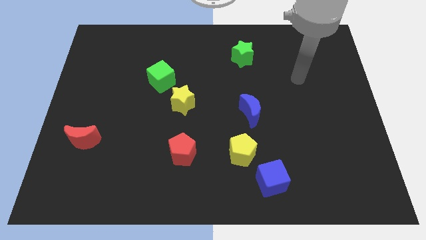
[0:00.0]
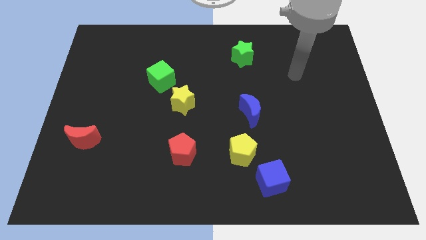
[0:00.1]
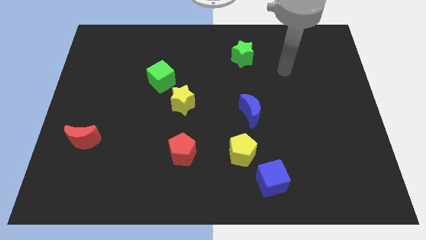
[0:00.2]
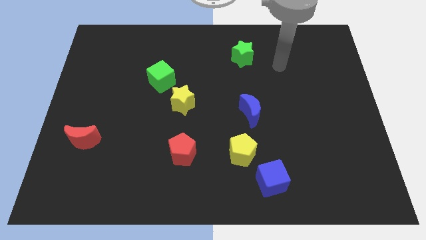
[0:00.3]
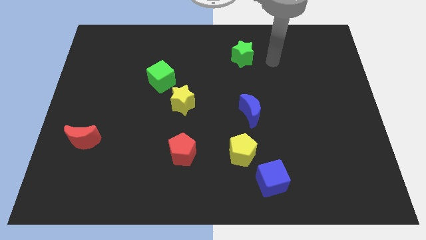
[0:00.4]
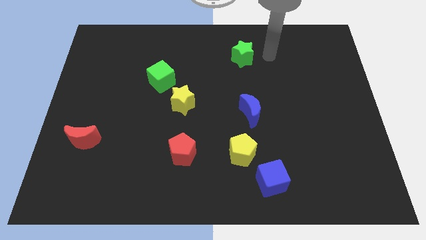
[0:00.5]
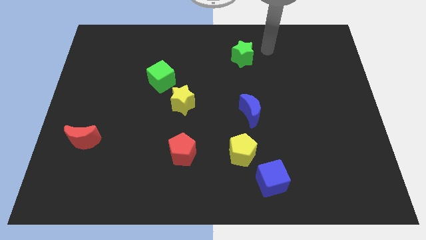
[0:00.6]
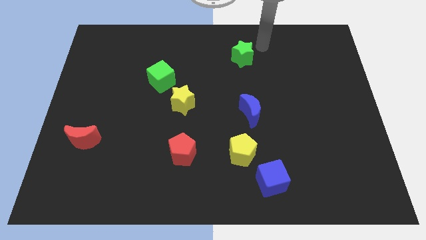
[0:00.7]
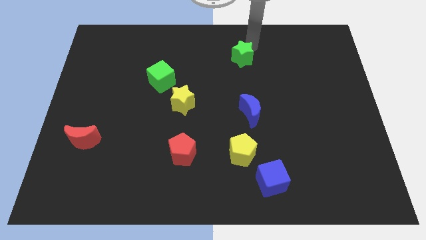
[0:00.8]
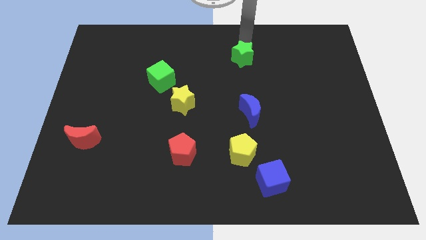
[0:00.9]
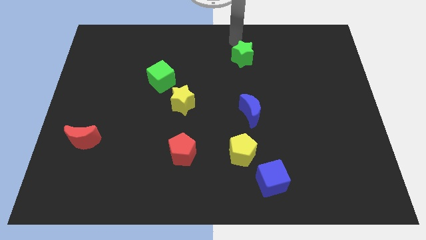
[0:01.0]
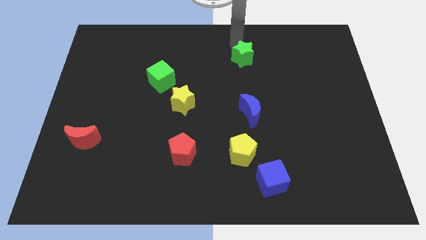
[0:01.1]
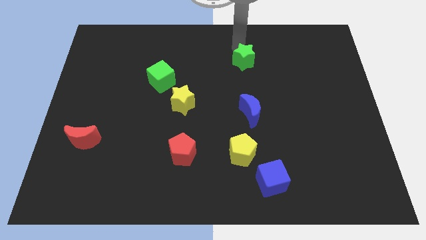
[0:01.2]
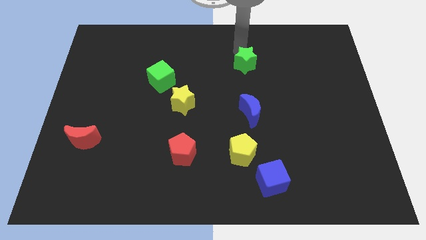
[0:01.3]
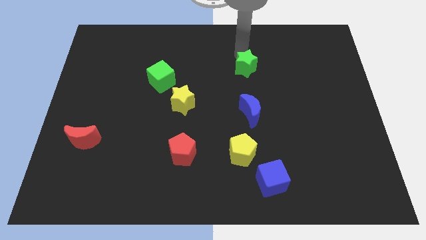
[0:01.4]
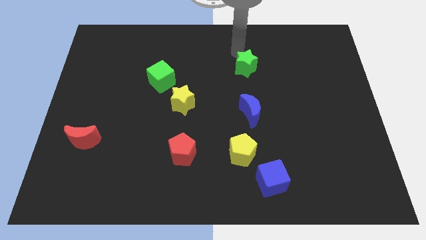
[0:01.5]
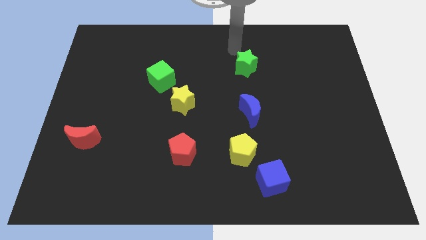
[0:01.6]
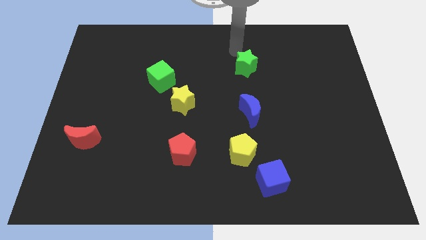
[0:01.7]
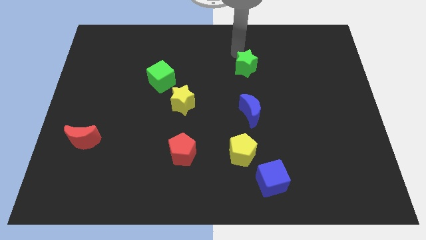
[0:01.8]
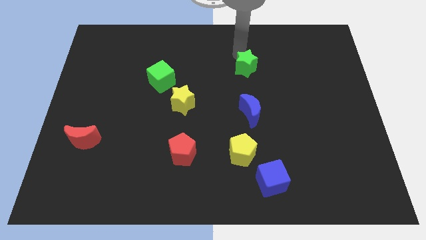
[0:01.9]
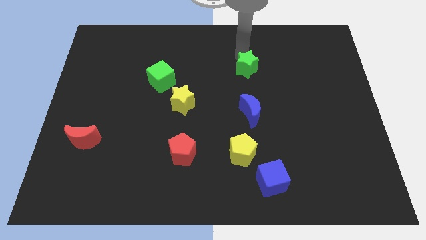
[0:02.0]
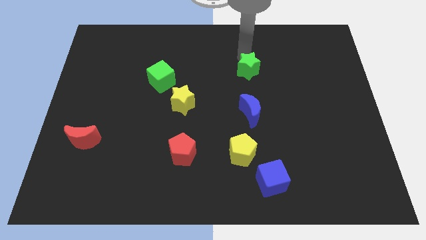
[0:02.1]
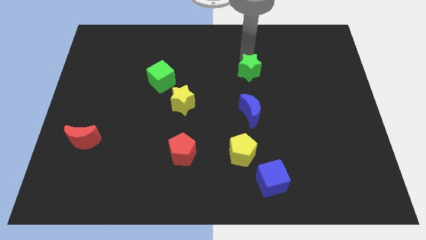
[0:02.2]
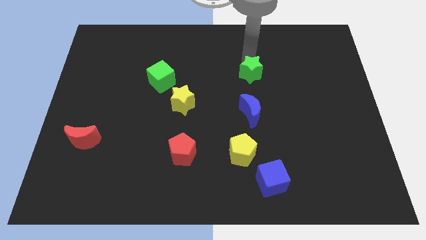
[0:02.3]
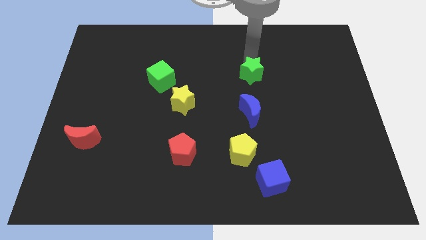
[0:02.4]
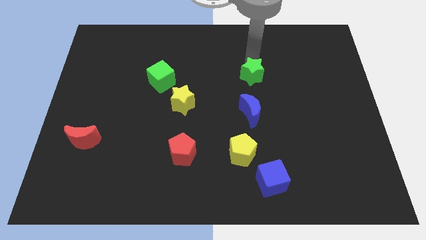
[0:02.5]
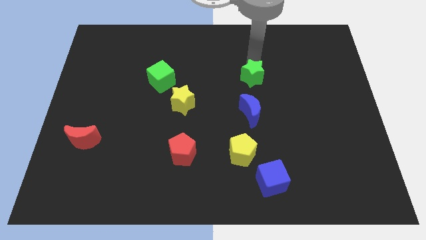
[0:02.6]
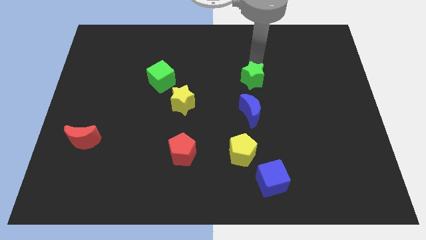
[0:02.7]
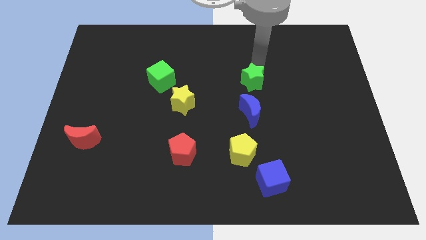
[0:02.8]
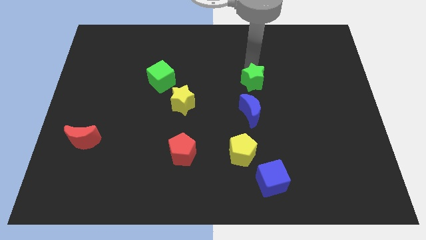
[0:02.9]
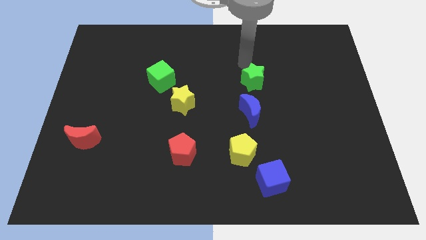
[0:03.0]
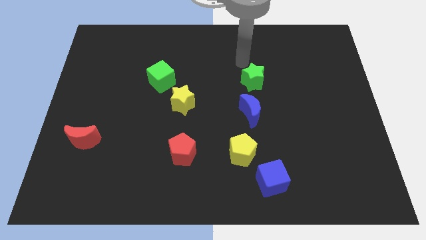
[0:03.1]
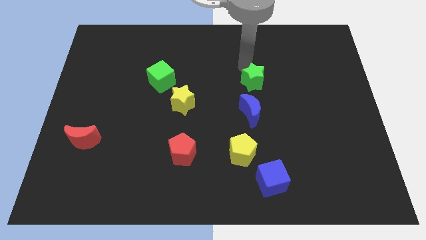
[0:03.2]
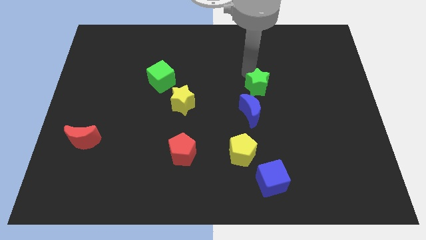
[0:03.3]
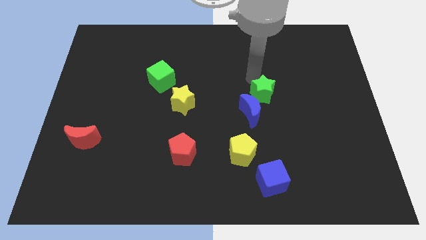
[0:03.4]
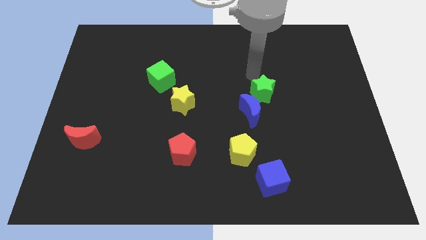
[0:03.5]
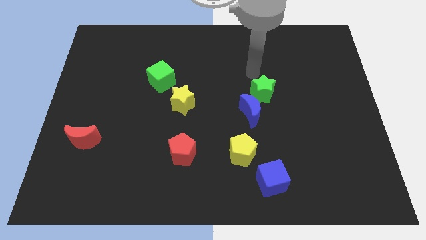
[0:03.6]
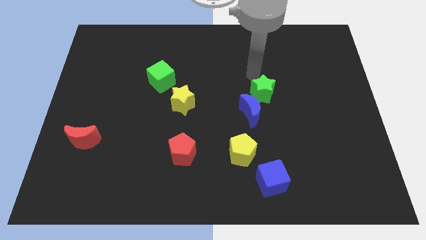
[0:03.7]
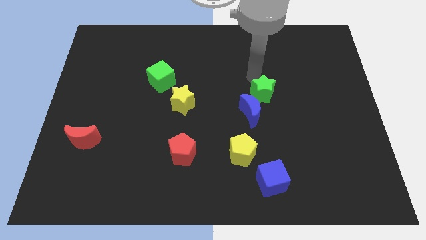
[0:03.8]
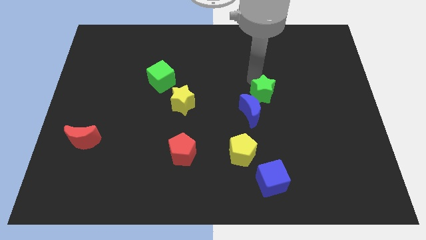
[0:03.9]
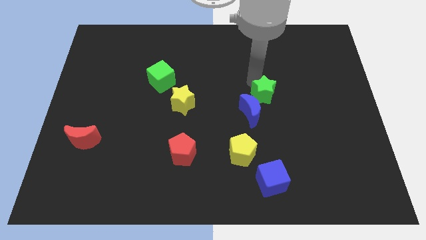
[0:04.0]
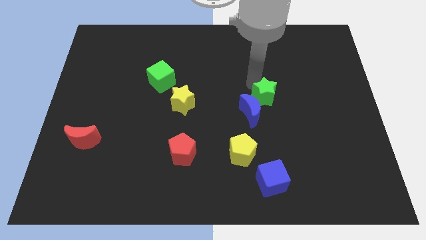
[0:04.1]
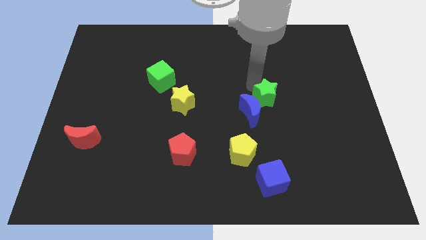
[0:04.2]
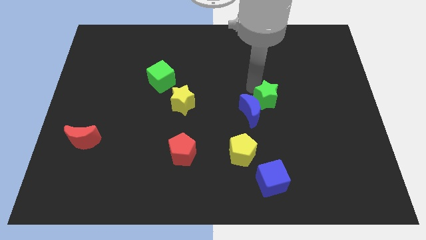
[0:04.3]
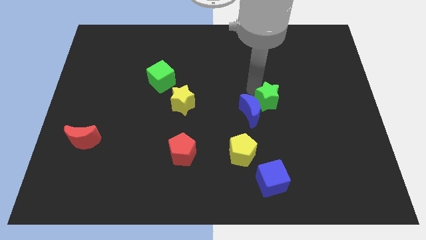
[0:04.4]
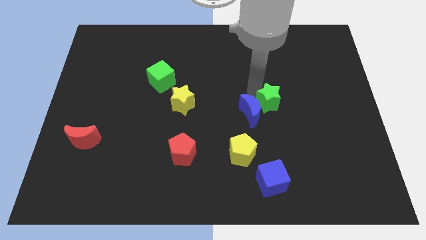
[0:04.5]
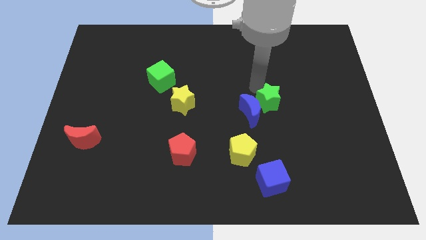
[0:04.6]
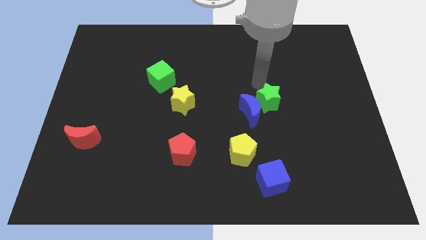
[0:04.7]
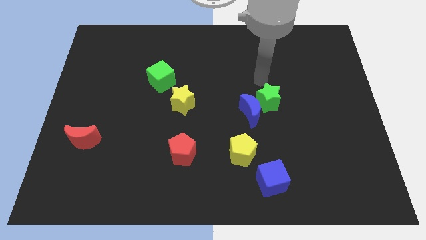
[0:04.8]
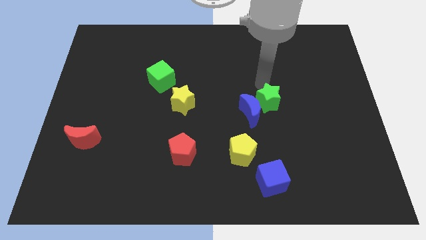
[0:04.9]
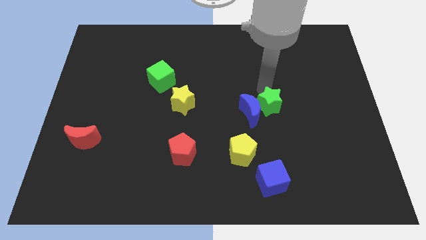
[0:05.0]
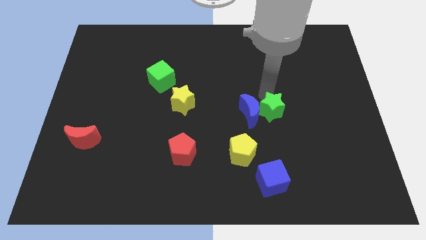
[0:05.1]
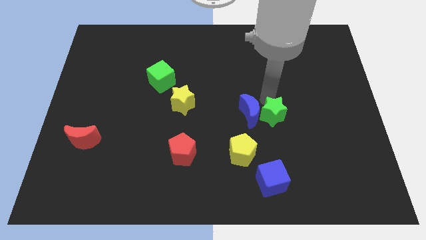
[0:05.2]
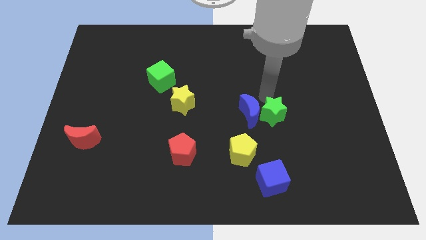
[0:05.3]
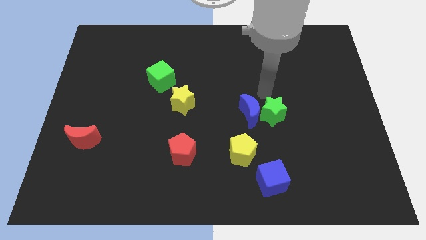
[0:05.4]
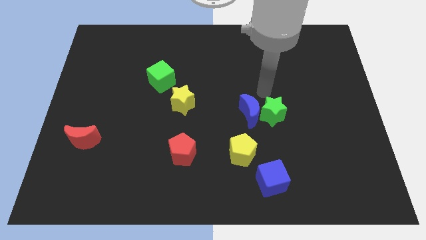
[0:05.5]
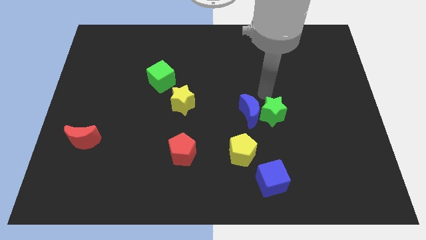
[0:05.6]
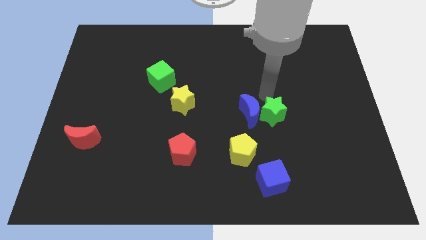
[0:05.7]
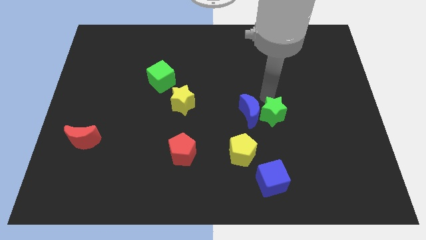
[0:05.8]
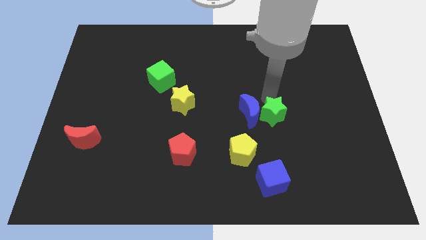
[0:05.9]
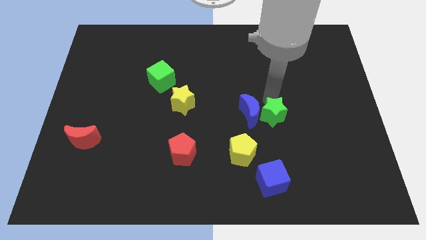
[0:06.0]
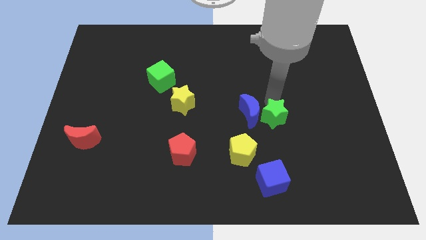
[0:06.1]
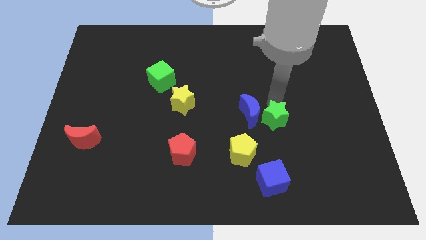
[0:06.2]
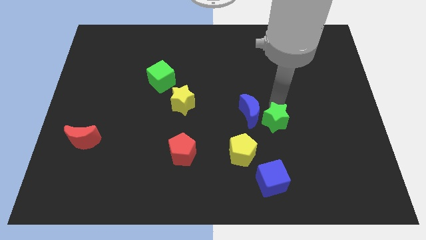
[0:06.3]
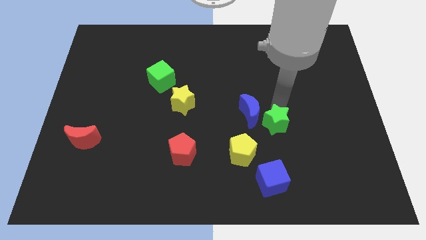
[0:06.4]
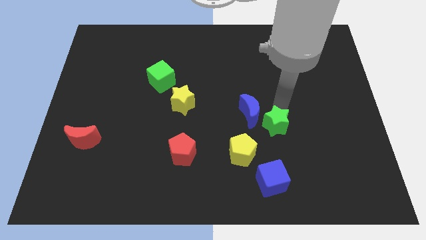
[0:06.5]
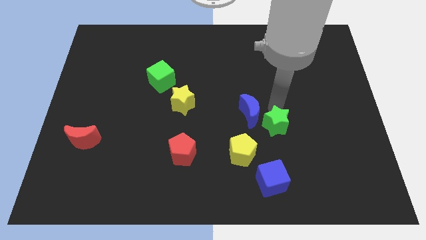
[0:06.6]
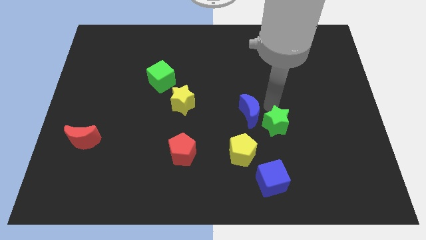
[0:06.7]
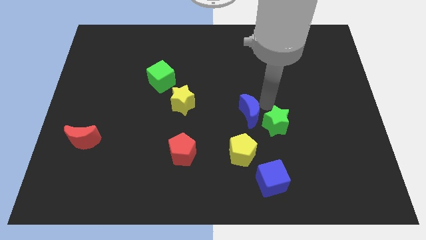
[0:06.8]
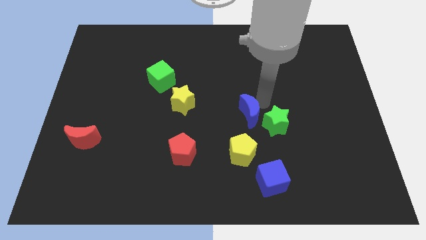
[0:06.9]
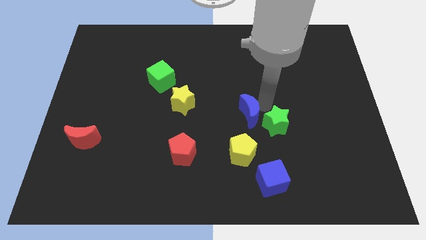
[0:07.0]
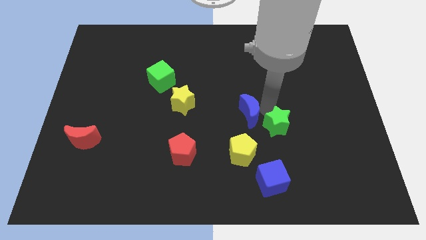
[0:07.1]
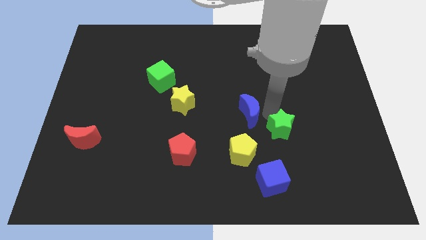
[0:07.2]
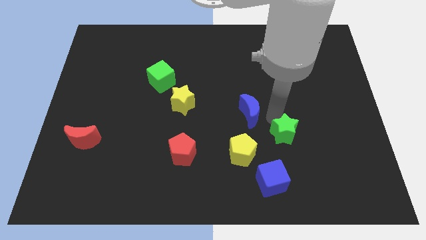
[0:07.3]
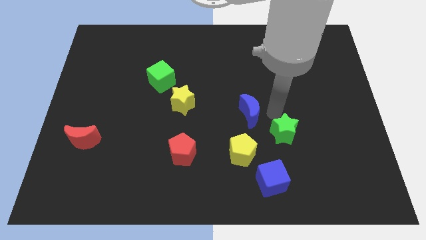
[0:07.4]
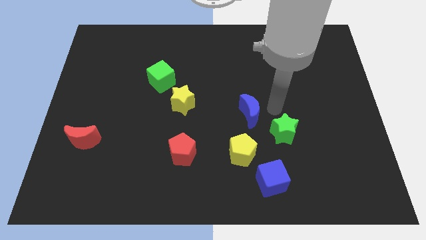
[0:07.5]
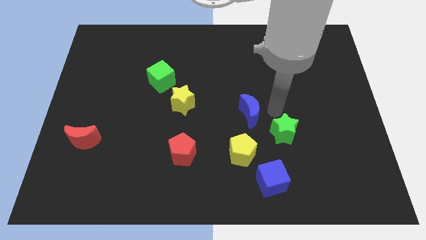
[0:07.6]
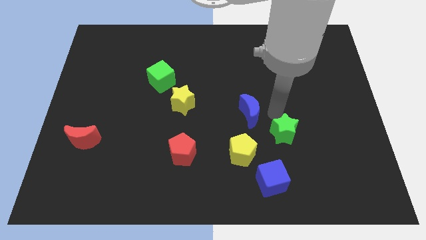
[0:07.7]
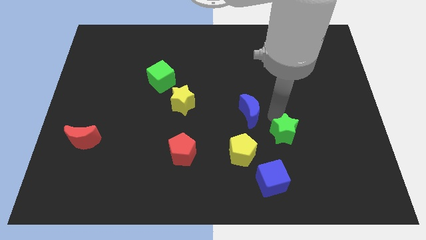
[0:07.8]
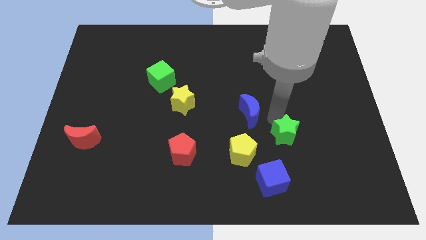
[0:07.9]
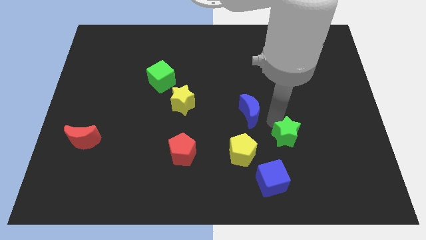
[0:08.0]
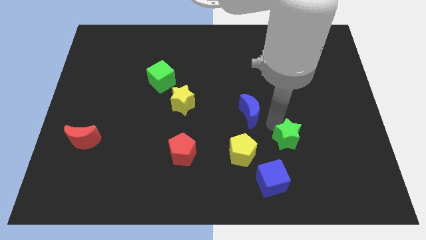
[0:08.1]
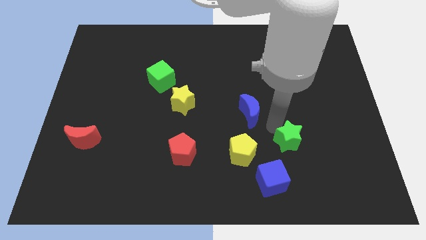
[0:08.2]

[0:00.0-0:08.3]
slide the green star diagonally up and to the right of the blue cube
